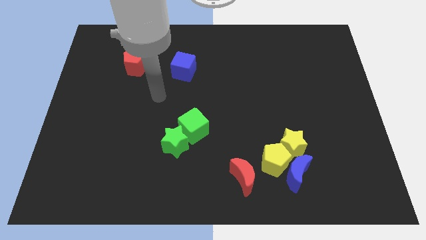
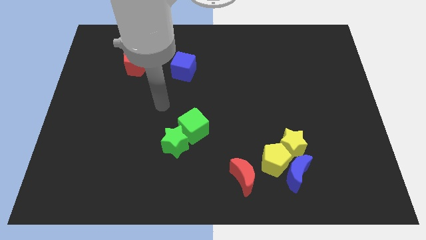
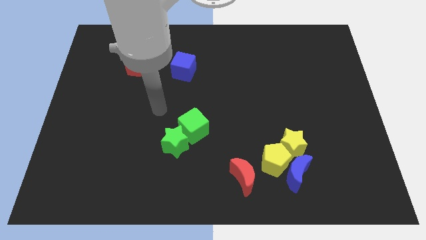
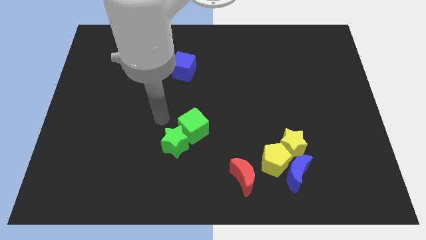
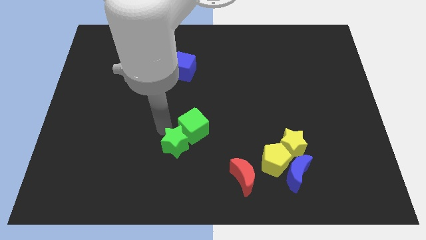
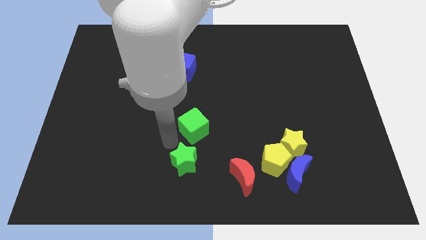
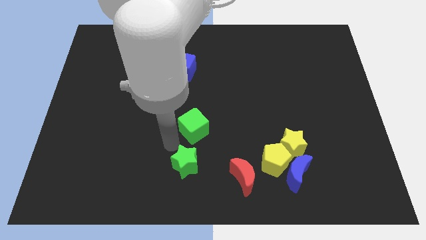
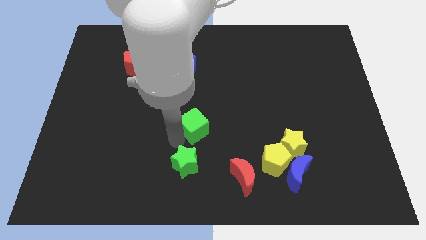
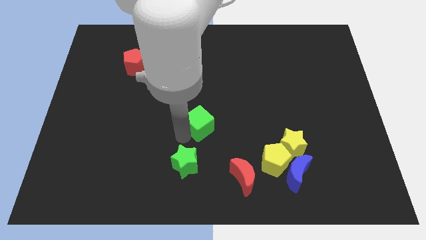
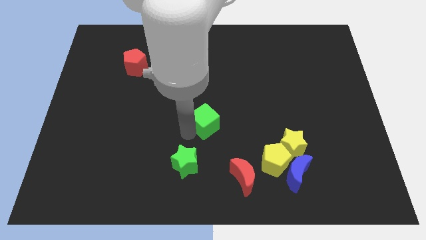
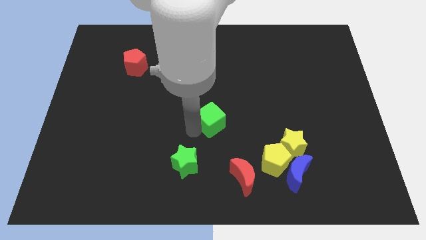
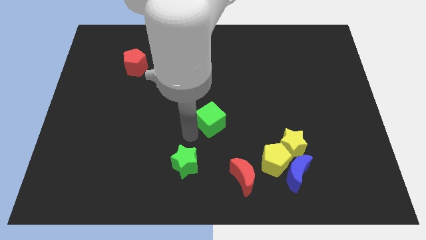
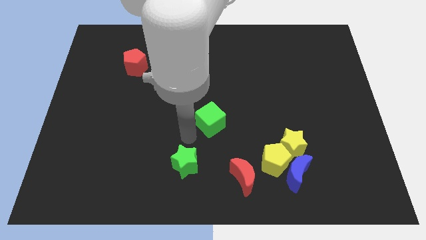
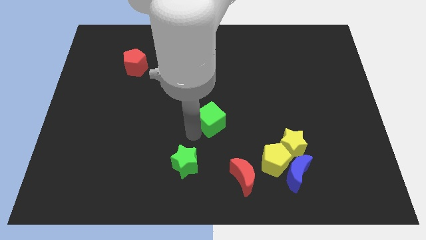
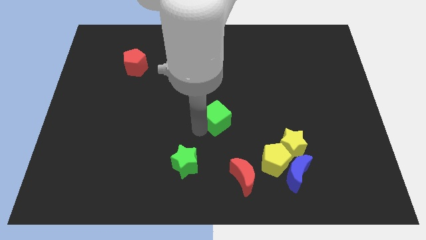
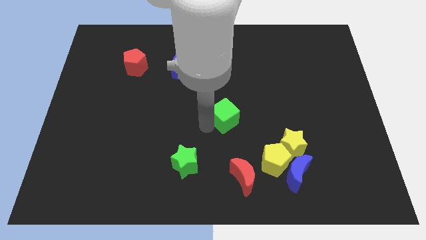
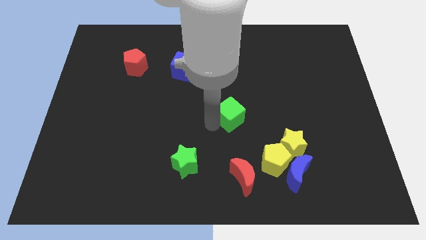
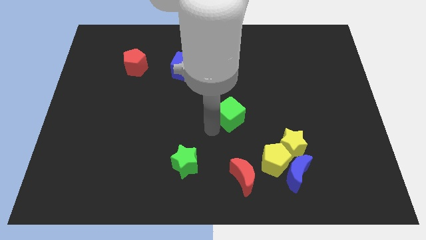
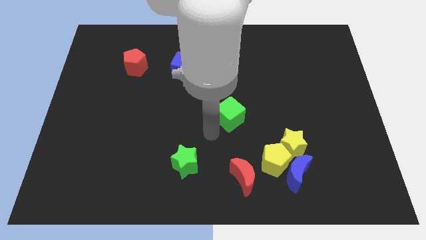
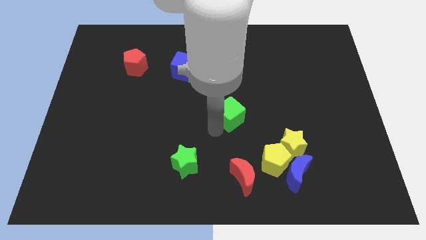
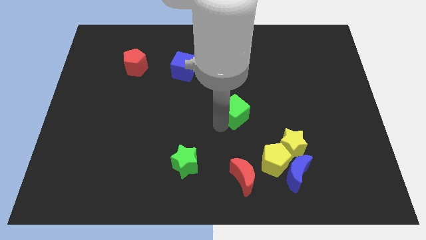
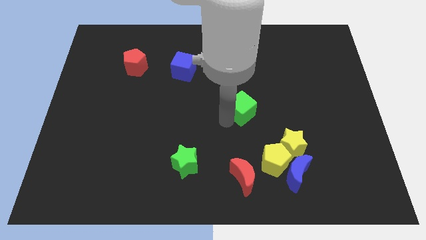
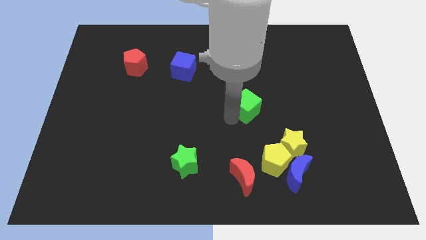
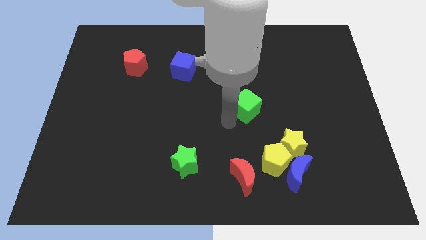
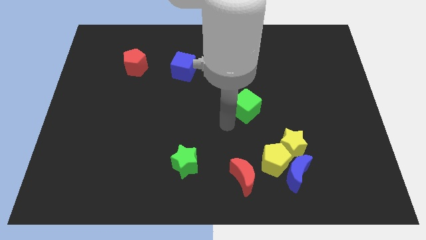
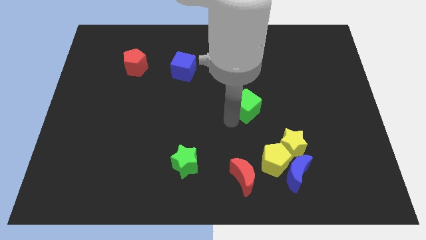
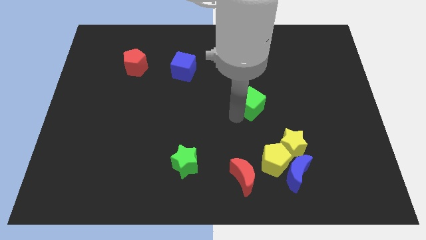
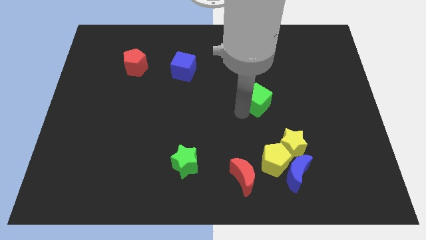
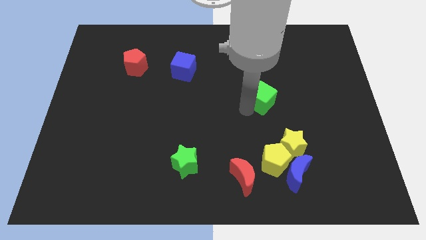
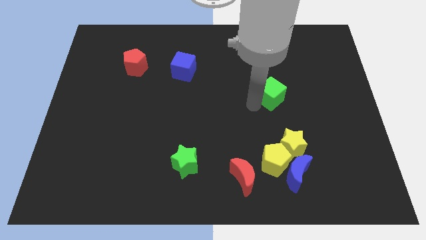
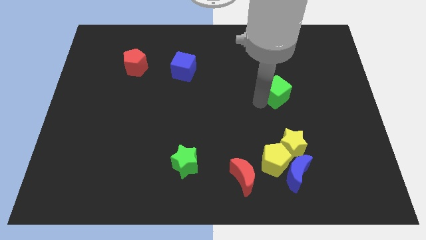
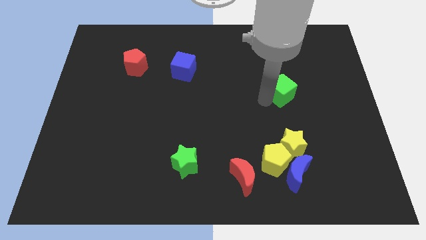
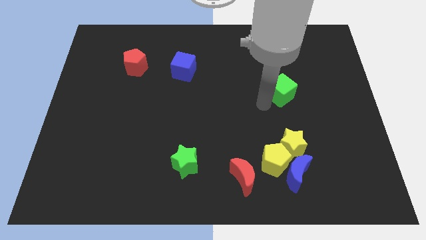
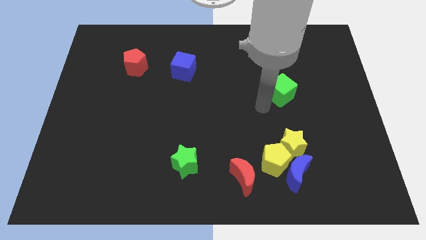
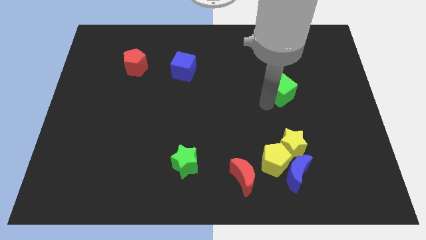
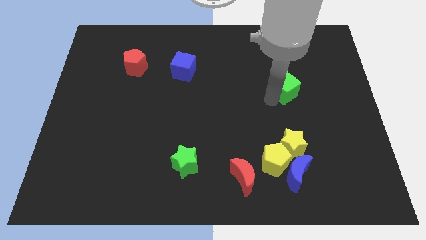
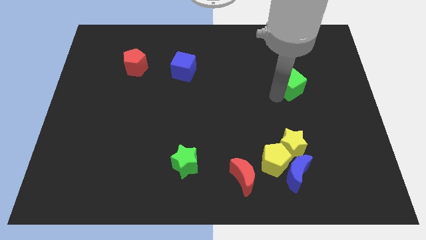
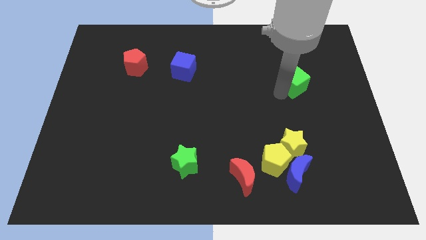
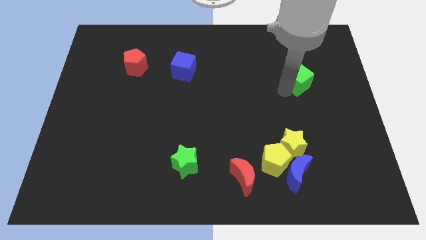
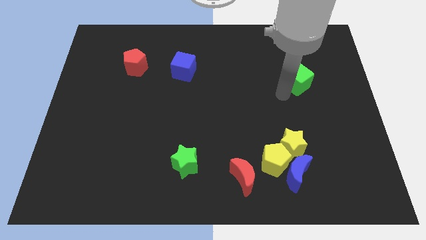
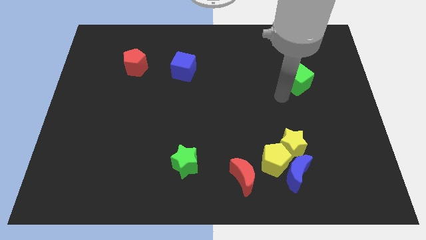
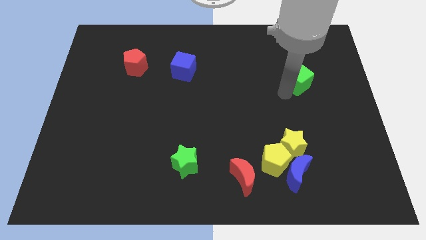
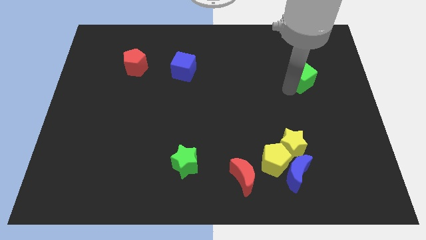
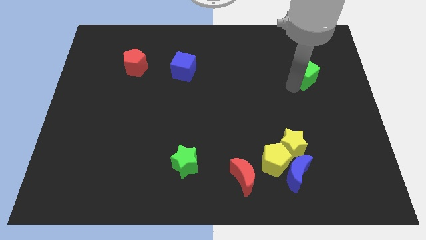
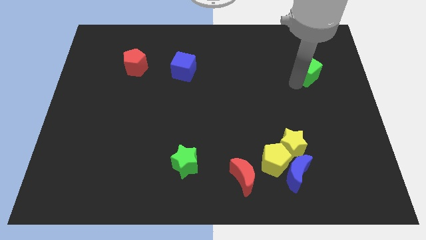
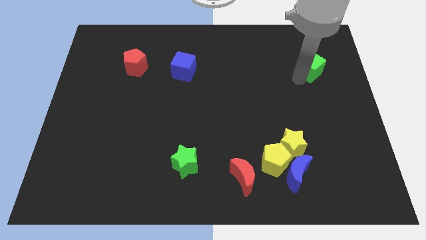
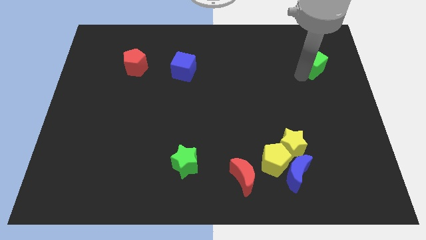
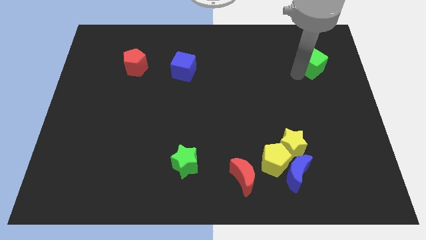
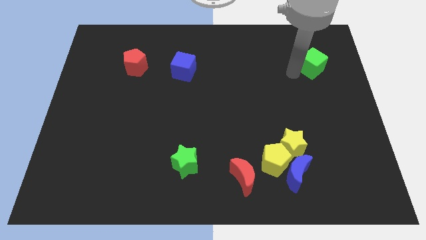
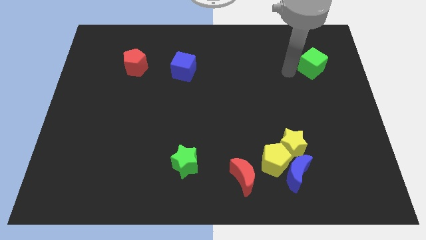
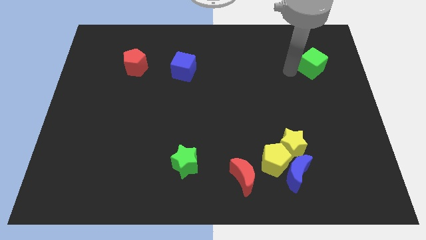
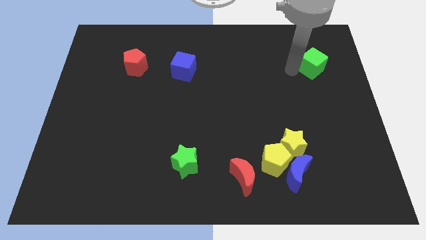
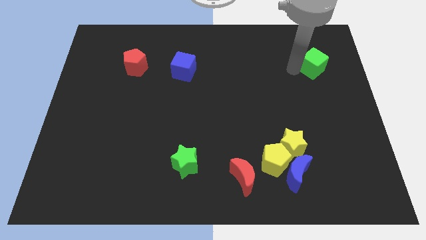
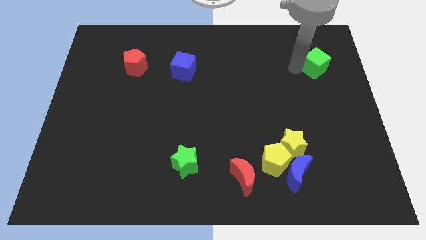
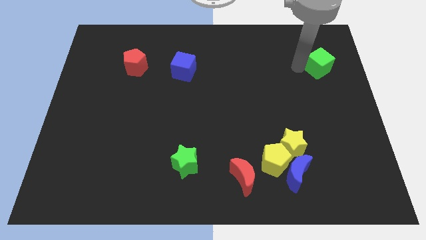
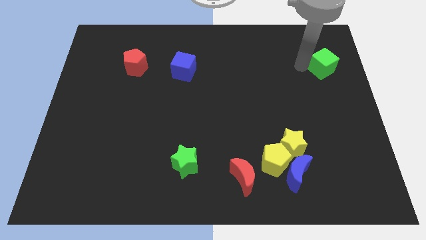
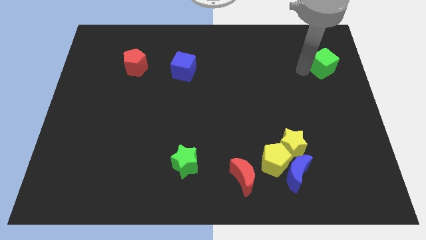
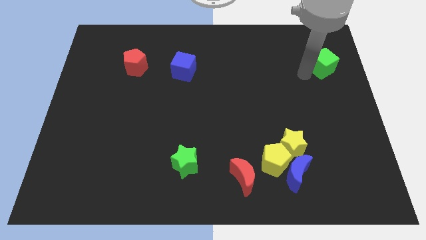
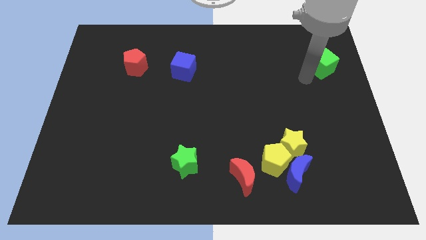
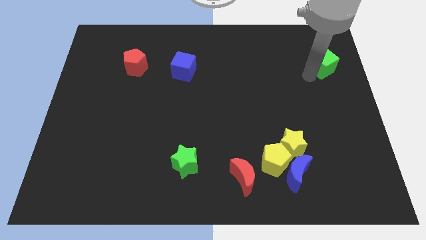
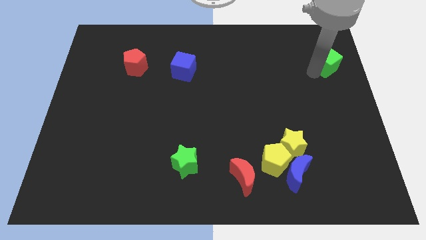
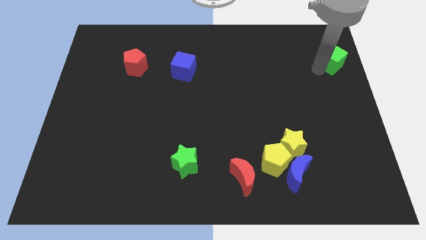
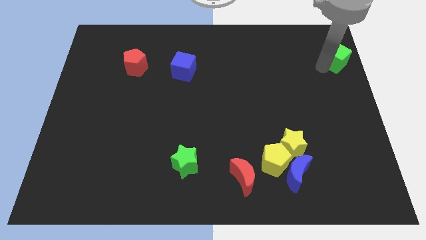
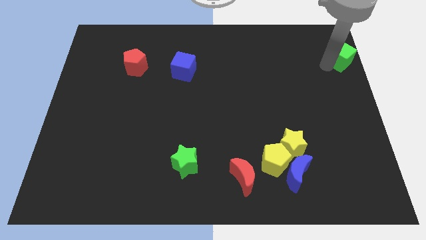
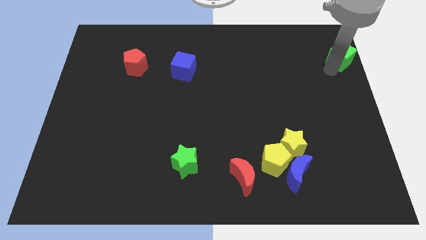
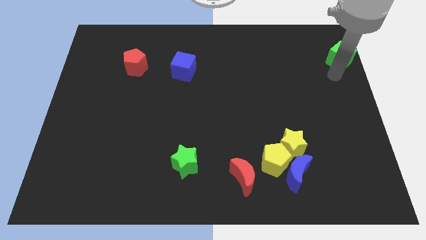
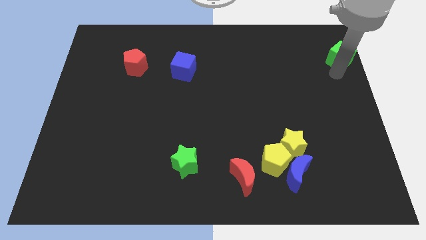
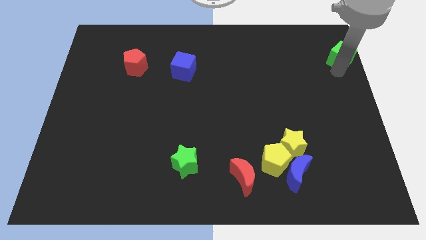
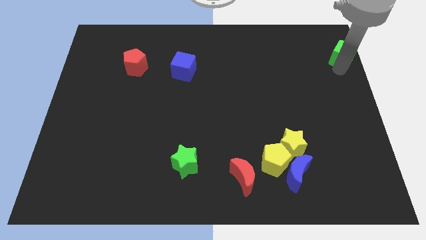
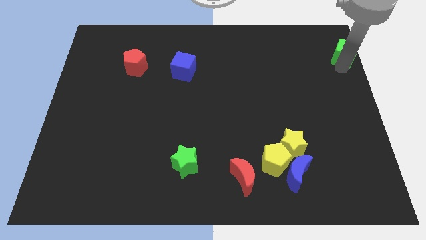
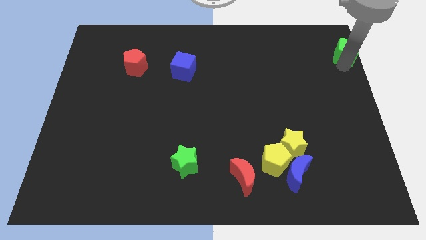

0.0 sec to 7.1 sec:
slide the green cube to the top right of the board
